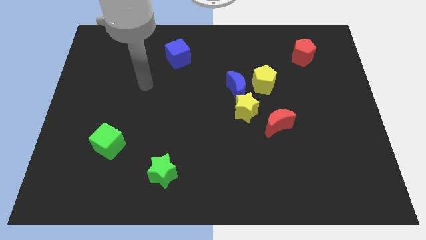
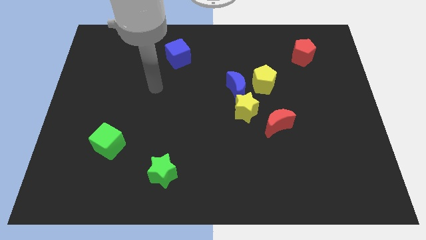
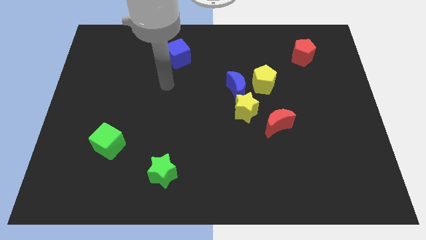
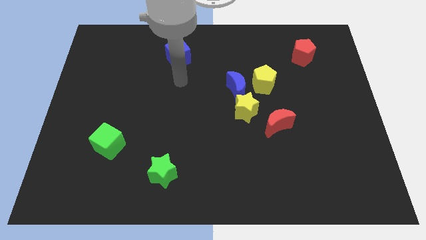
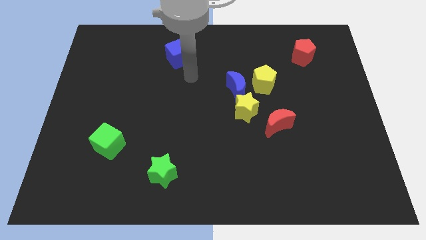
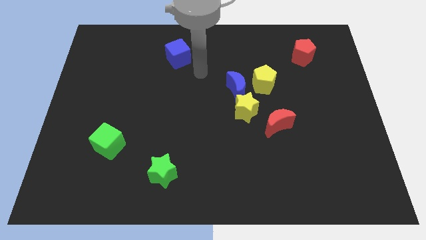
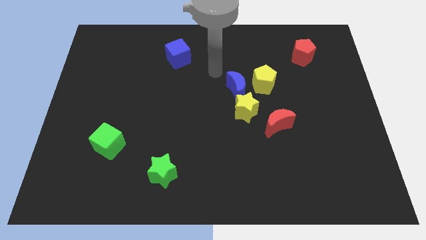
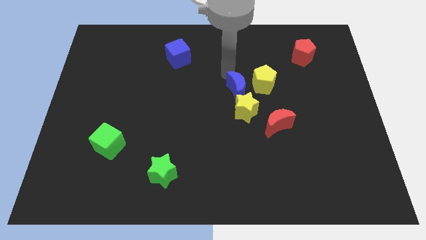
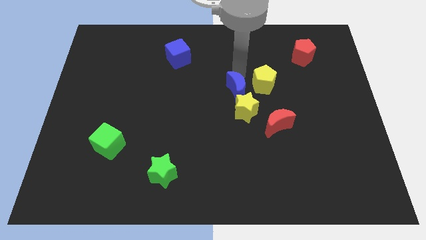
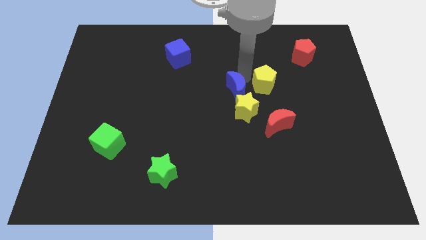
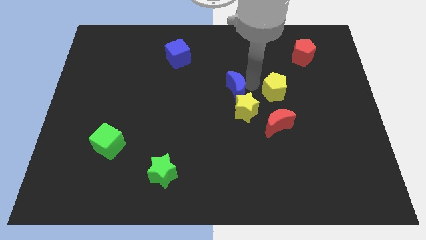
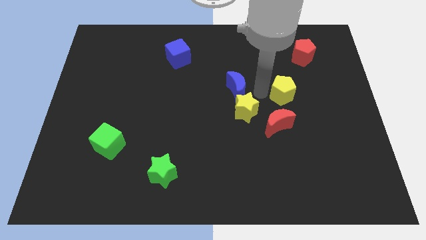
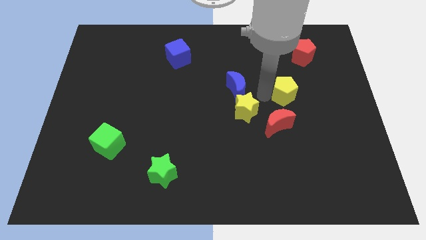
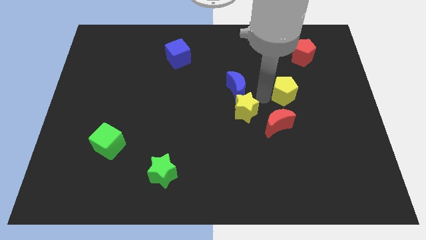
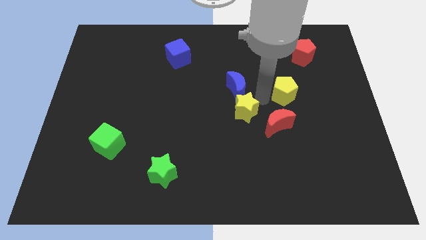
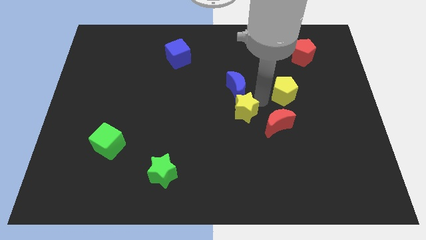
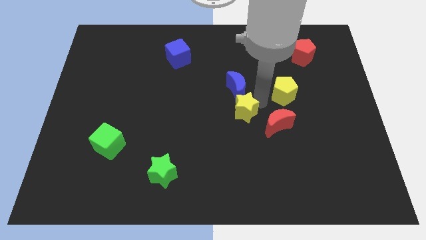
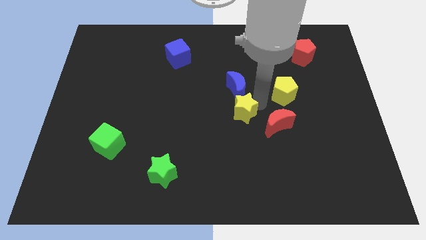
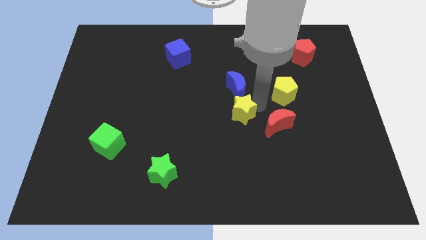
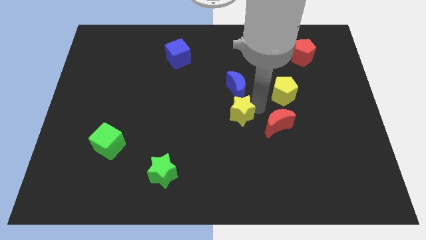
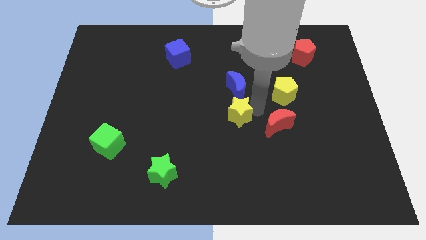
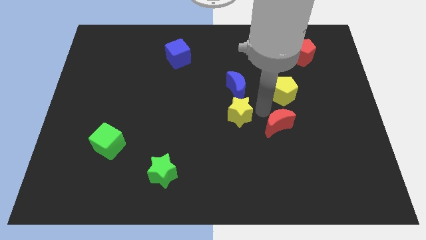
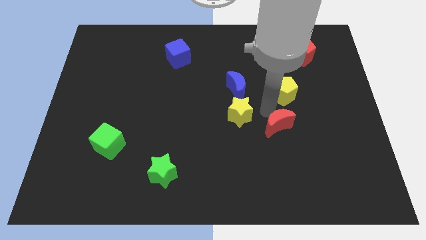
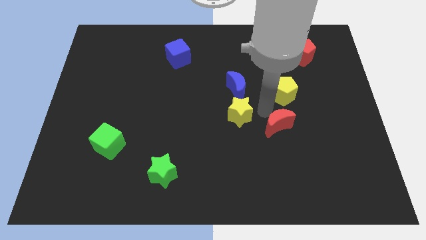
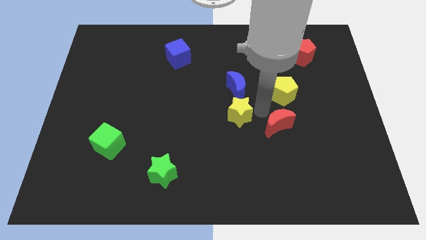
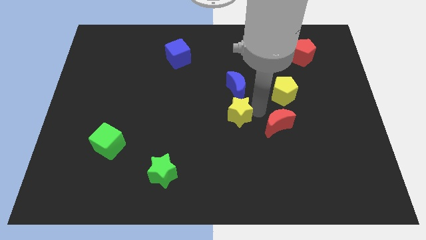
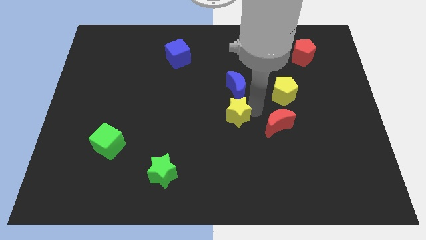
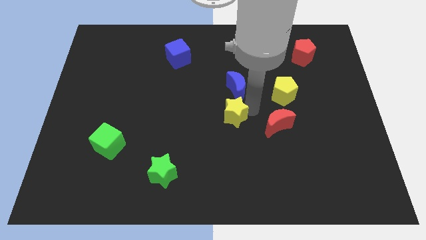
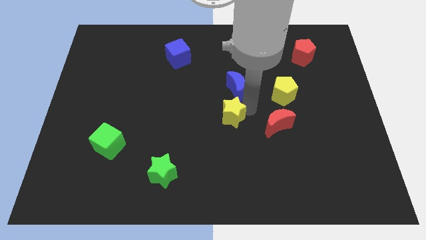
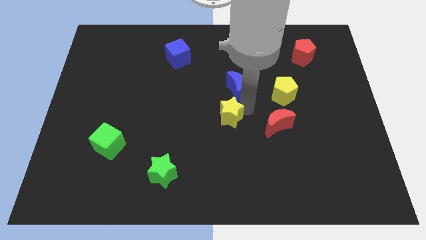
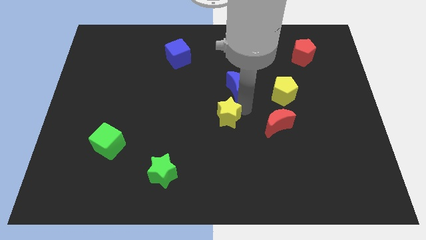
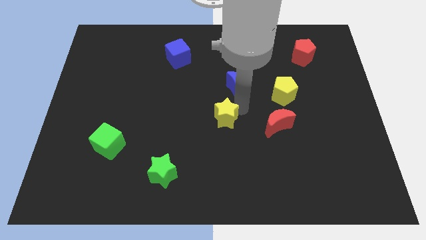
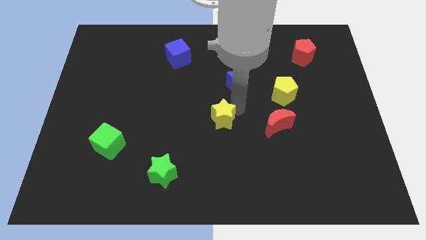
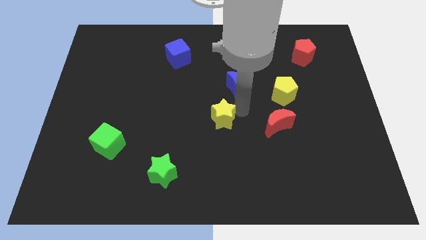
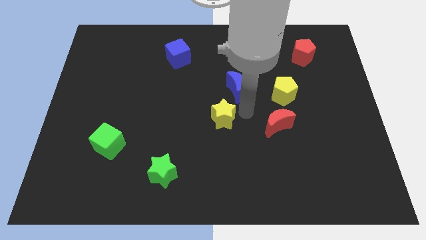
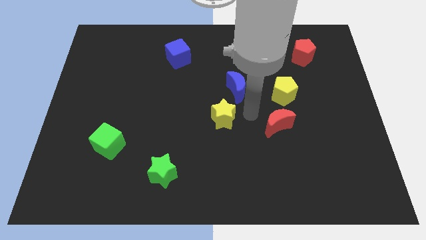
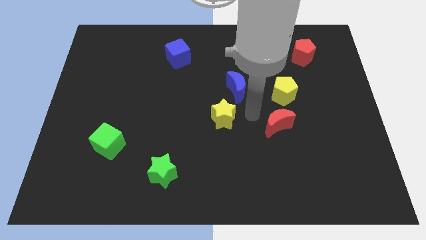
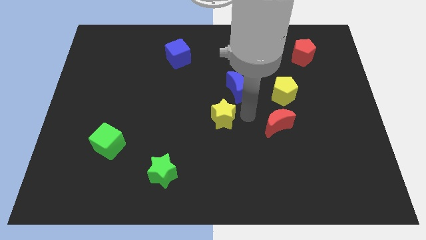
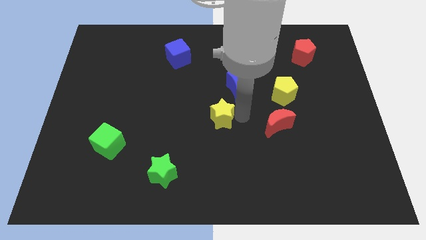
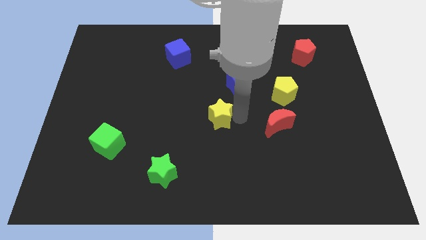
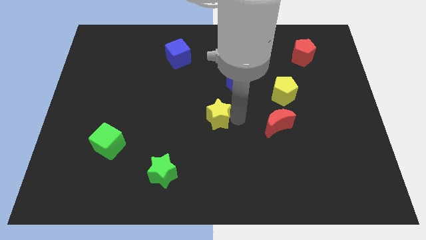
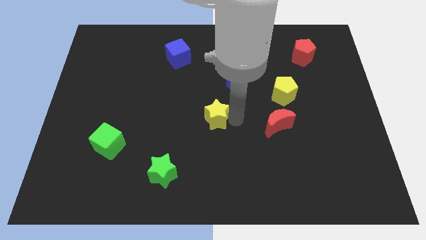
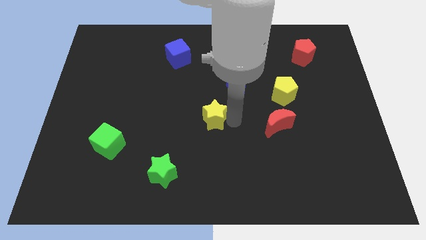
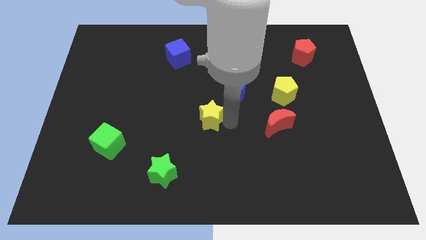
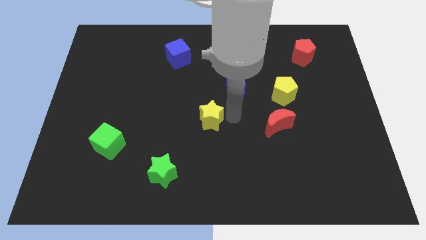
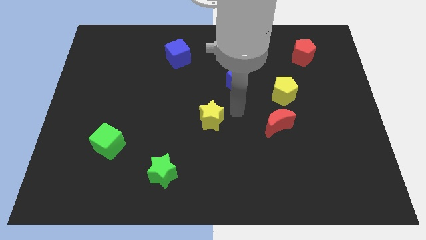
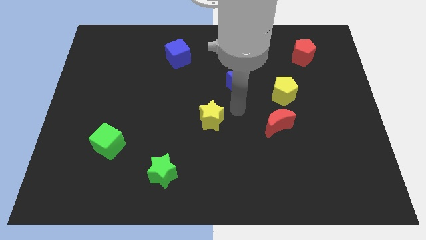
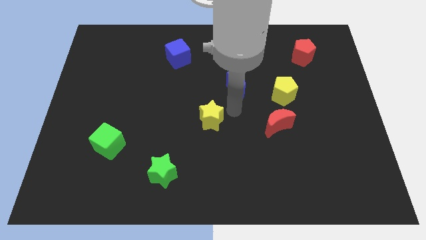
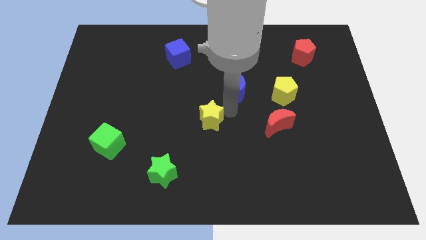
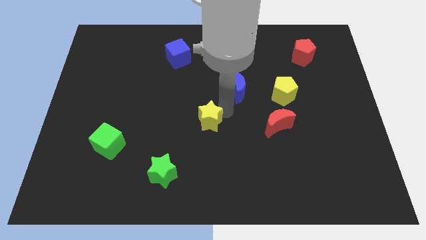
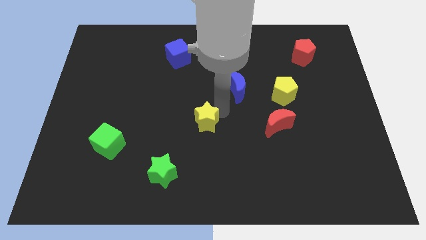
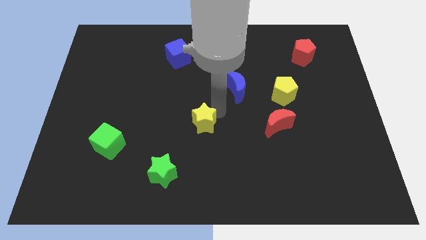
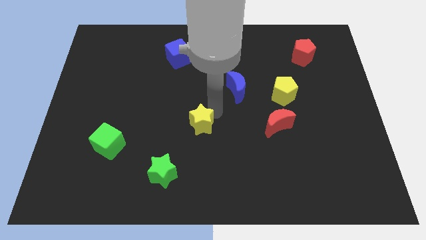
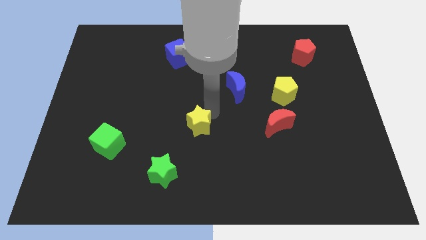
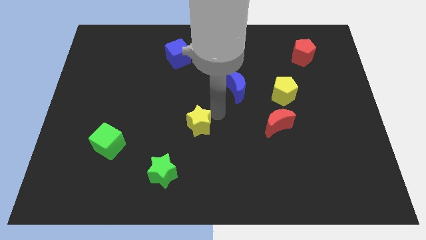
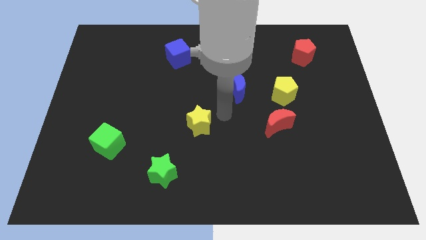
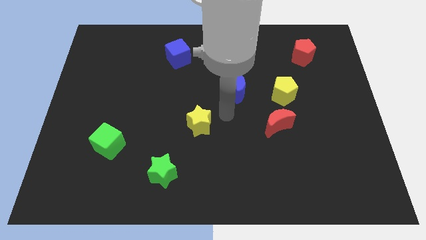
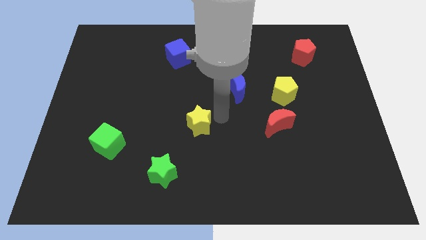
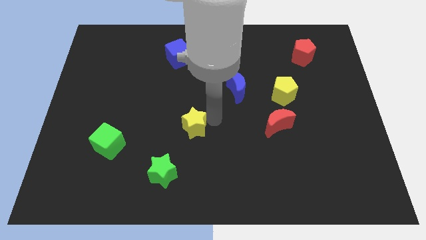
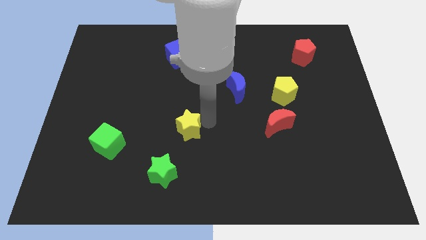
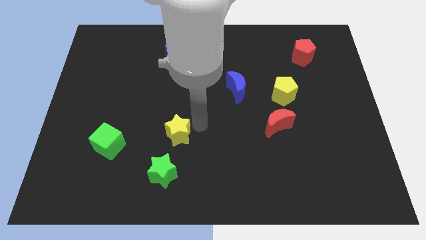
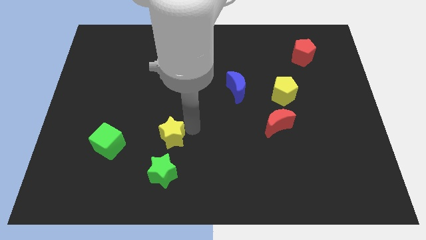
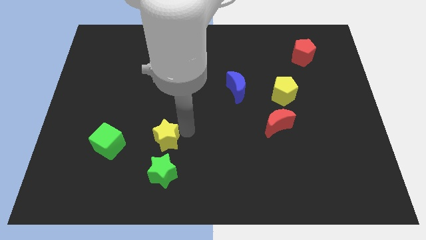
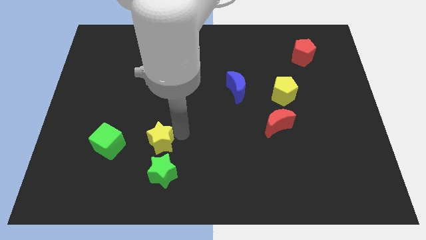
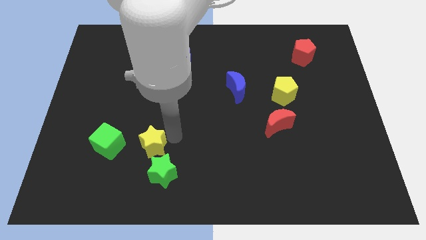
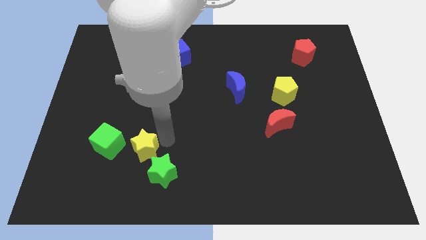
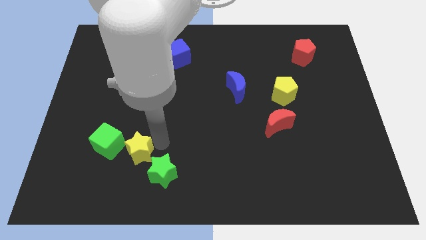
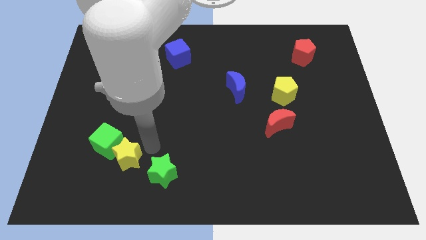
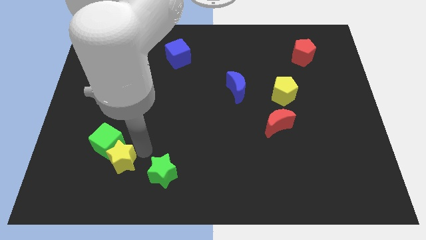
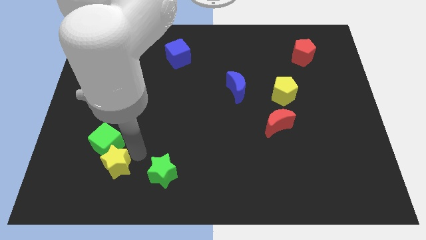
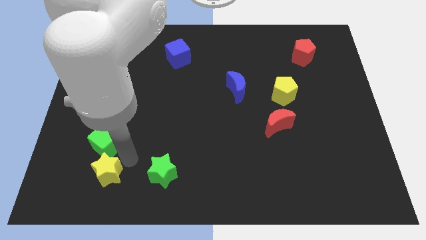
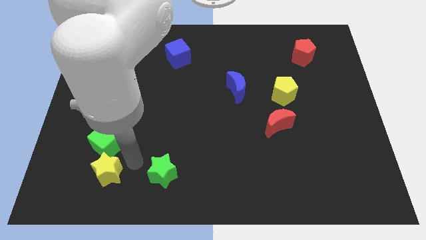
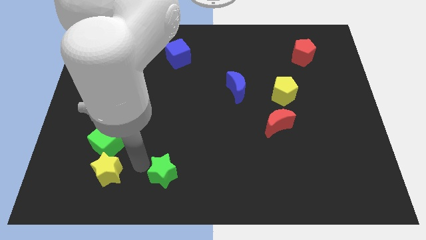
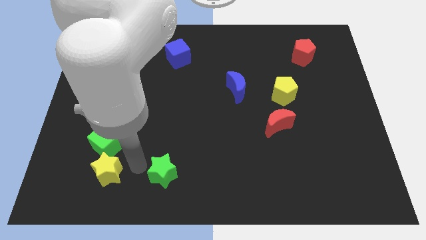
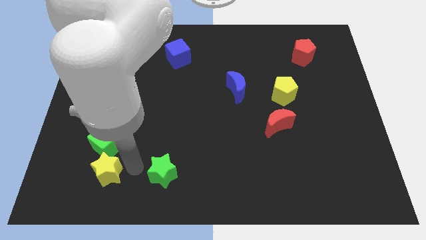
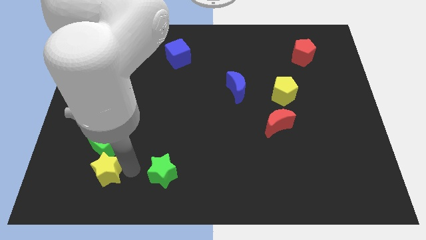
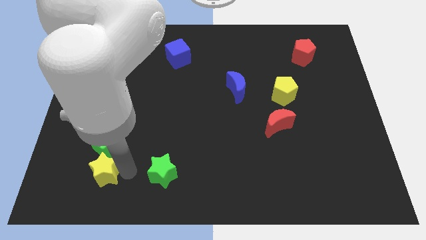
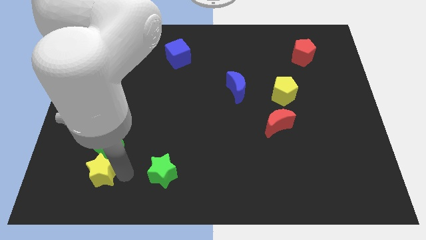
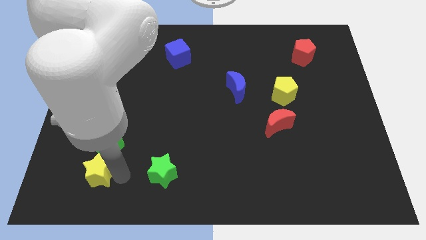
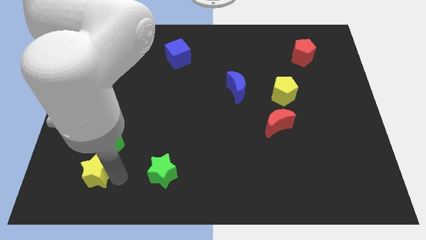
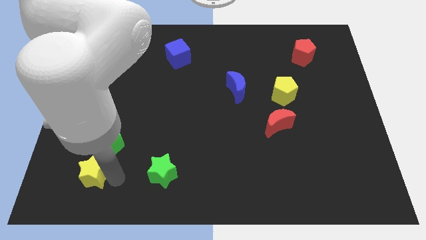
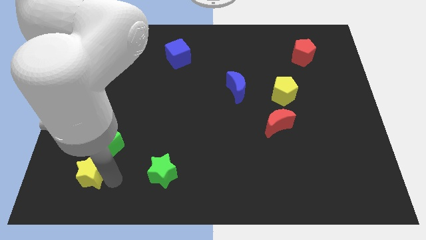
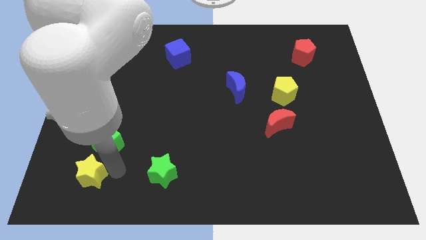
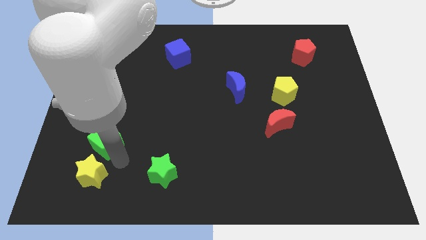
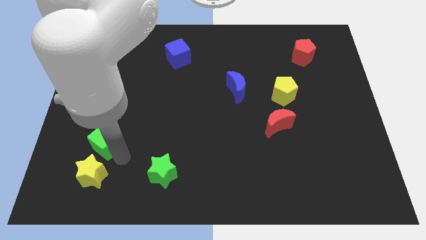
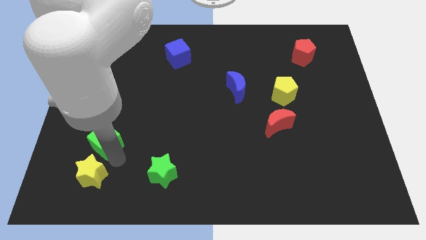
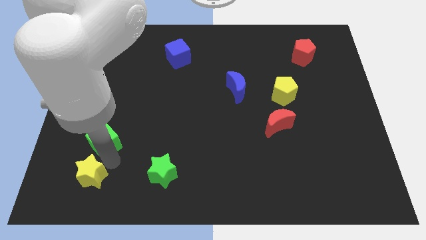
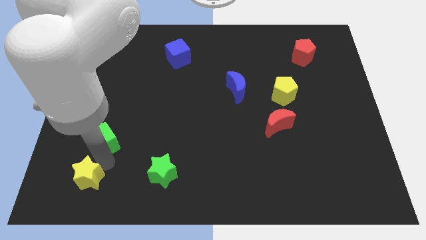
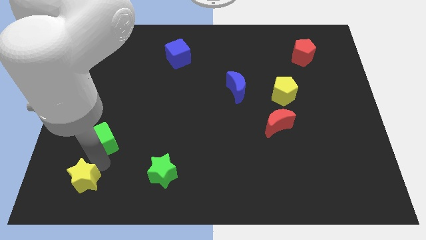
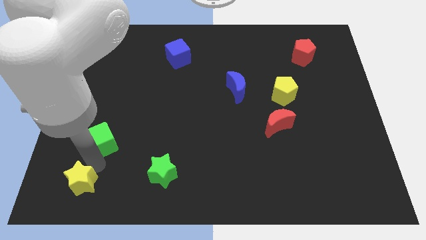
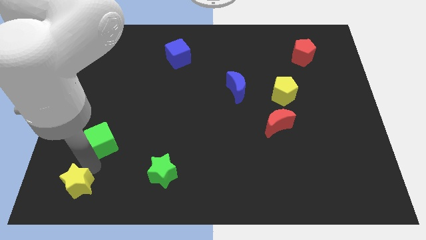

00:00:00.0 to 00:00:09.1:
push the yellow star to the bottom left
